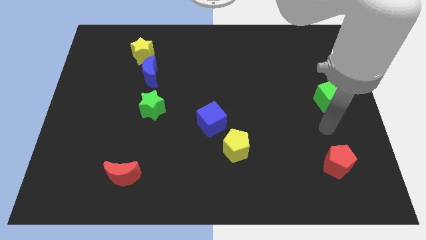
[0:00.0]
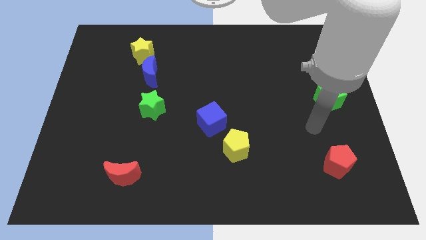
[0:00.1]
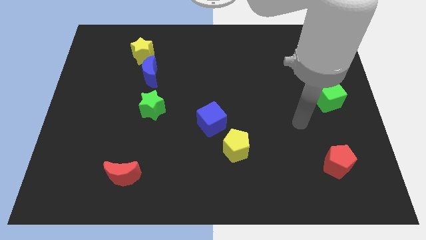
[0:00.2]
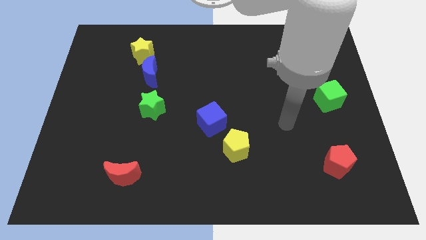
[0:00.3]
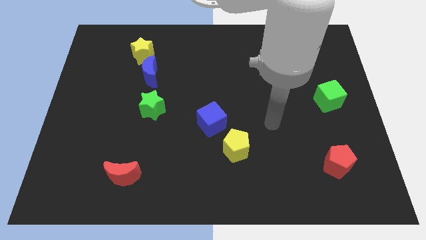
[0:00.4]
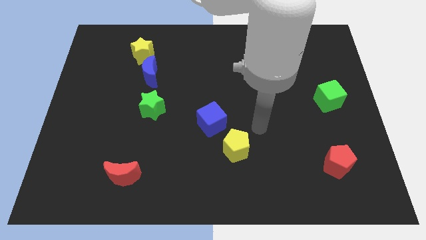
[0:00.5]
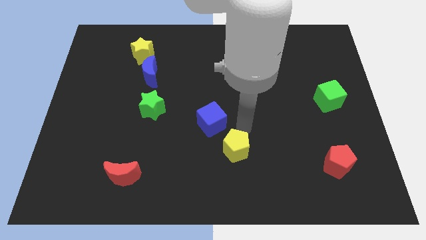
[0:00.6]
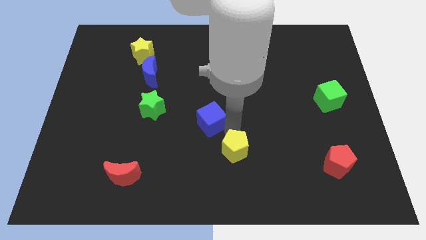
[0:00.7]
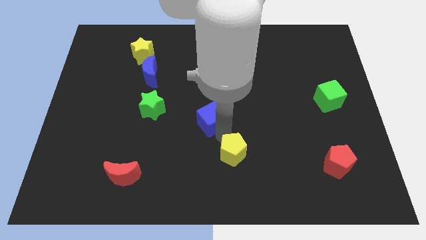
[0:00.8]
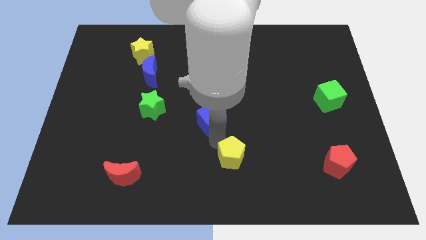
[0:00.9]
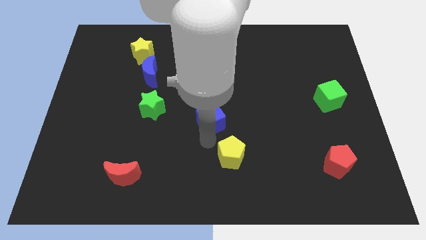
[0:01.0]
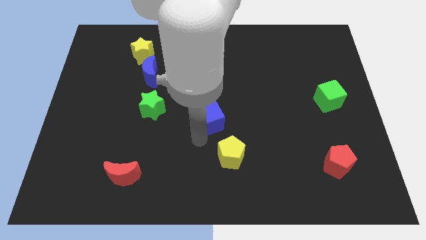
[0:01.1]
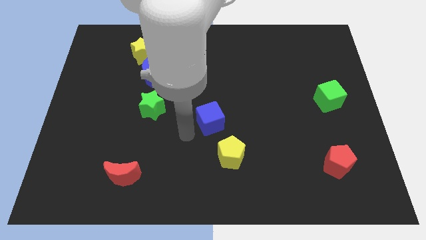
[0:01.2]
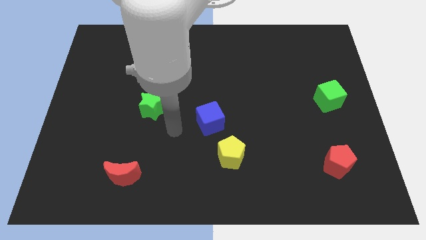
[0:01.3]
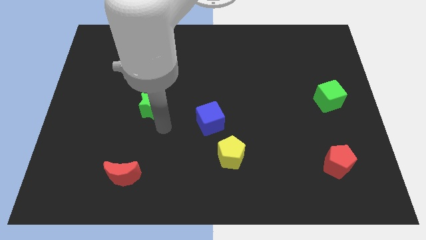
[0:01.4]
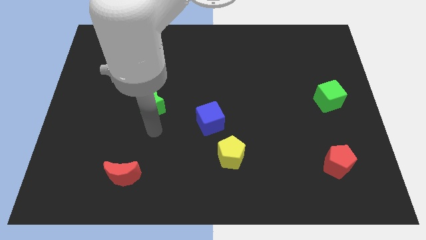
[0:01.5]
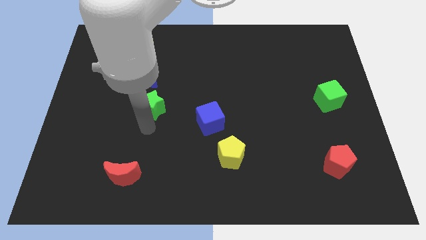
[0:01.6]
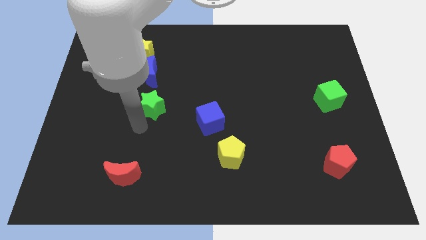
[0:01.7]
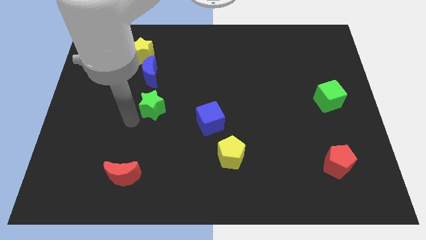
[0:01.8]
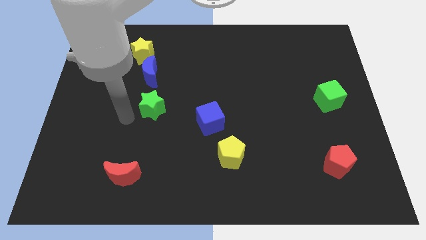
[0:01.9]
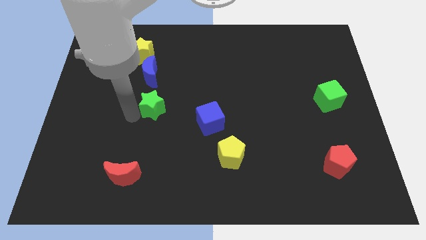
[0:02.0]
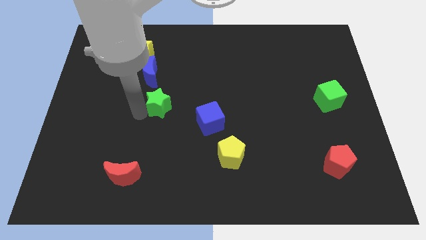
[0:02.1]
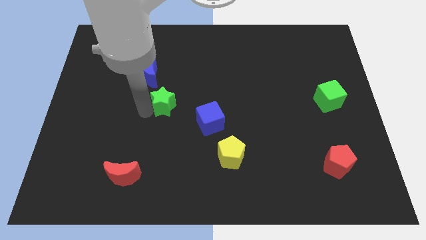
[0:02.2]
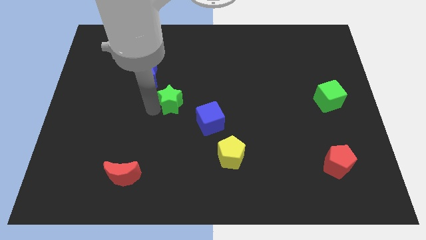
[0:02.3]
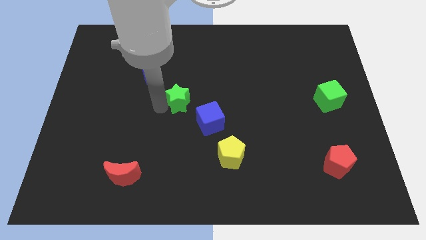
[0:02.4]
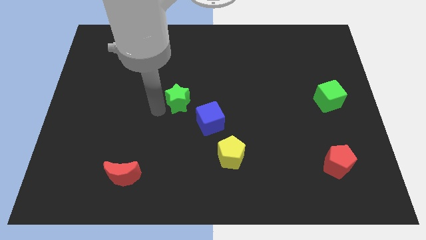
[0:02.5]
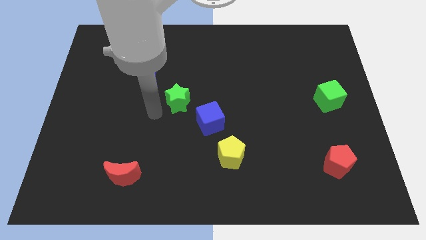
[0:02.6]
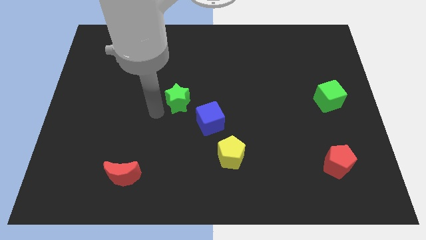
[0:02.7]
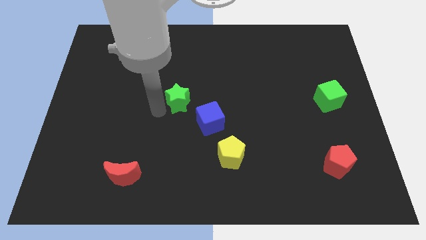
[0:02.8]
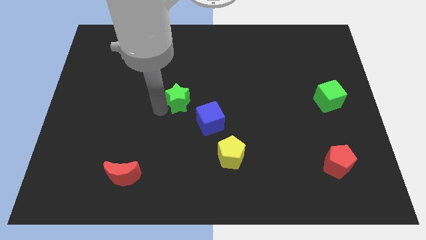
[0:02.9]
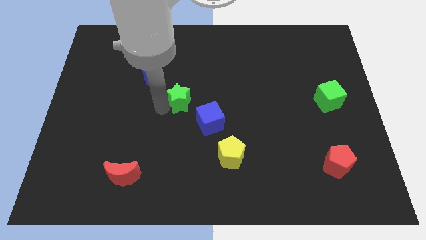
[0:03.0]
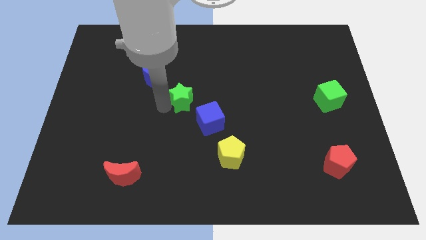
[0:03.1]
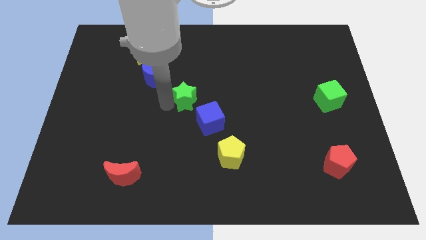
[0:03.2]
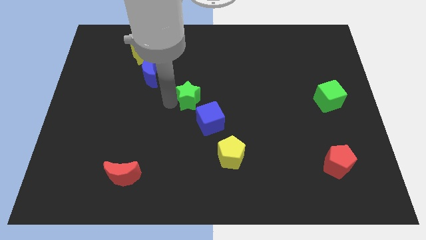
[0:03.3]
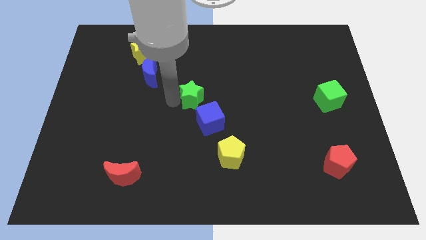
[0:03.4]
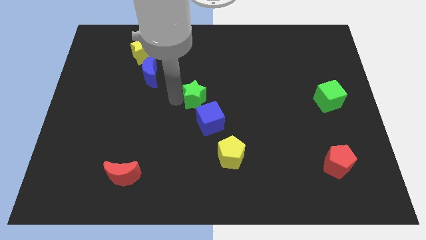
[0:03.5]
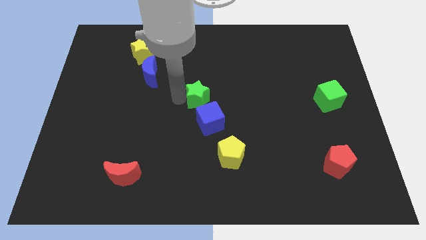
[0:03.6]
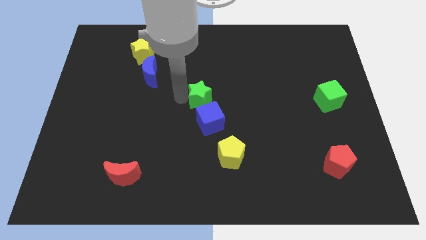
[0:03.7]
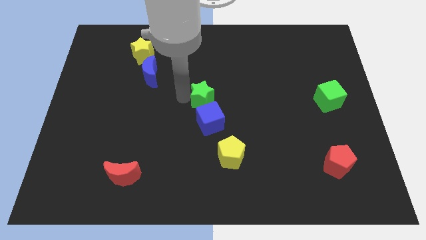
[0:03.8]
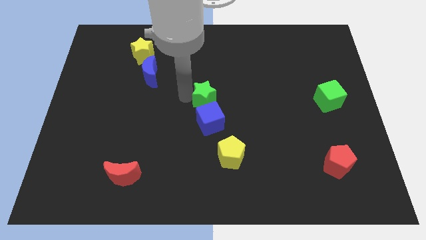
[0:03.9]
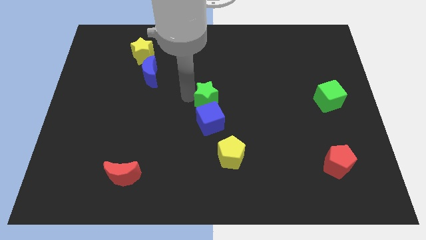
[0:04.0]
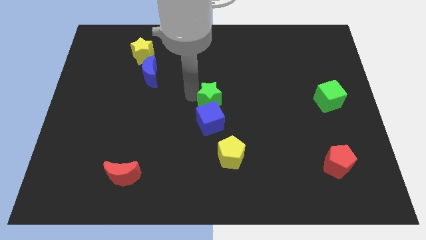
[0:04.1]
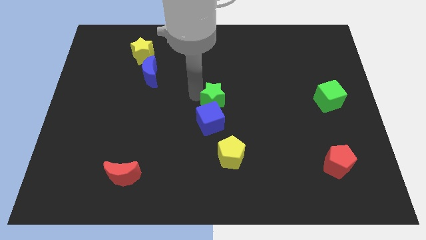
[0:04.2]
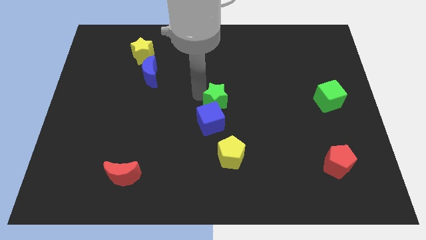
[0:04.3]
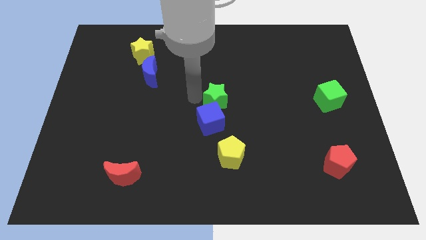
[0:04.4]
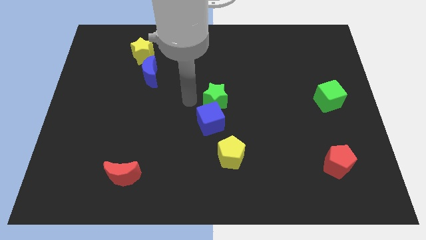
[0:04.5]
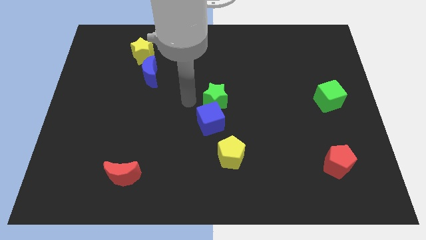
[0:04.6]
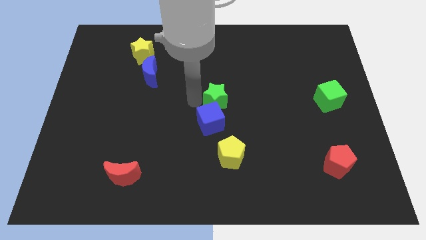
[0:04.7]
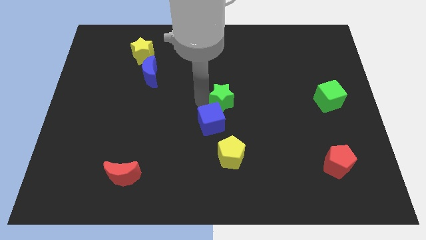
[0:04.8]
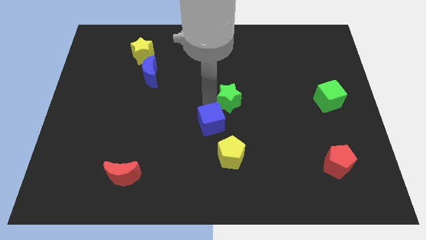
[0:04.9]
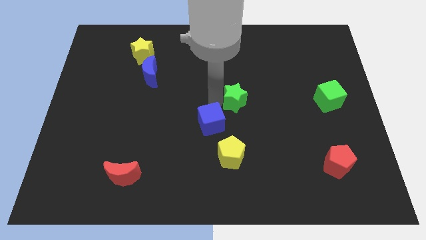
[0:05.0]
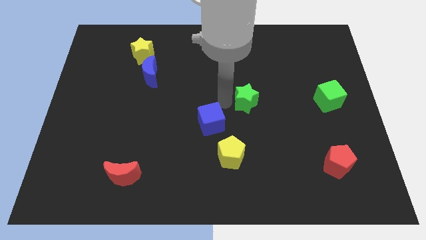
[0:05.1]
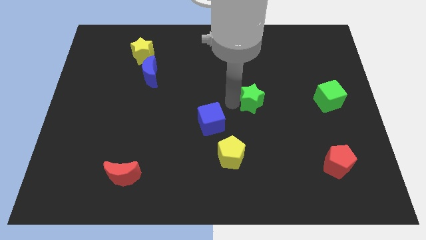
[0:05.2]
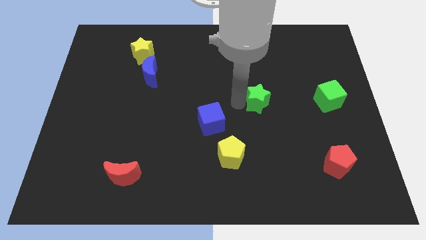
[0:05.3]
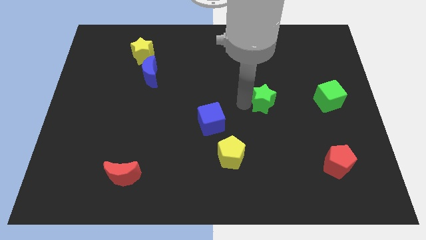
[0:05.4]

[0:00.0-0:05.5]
push the green star to the left of the green cube
